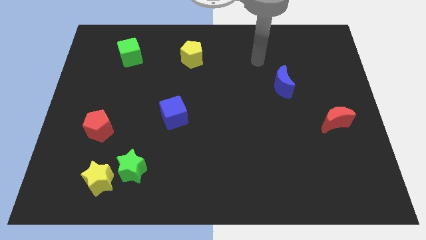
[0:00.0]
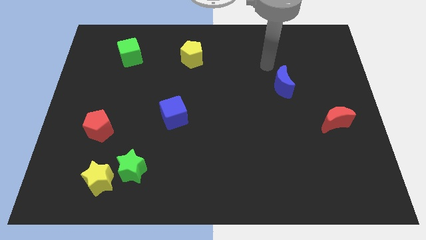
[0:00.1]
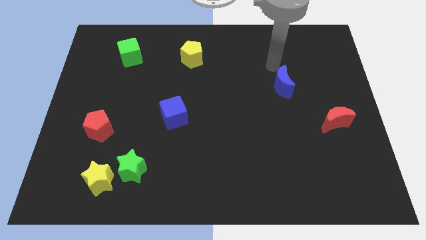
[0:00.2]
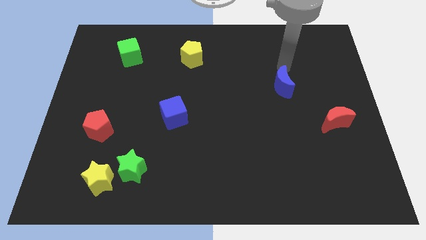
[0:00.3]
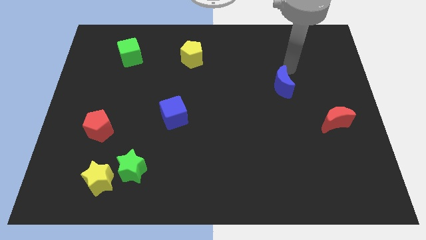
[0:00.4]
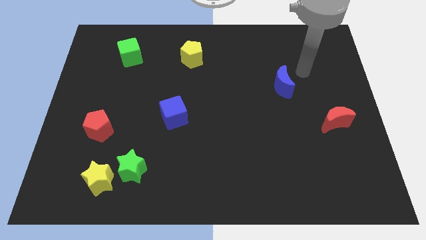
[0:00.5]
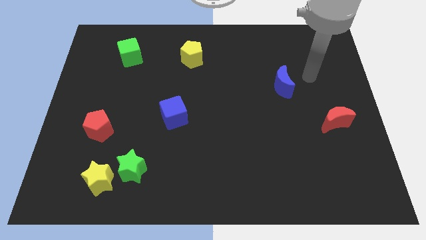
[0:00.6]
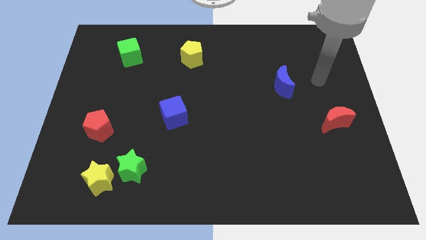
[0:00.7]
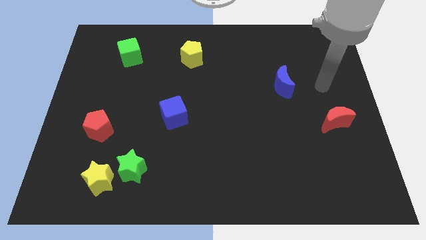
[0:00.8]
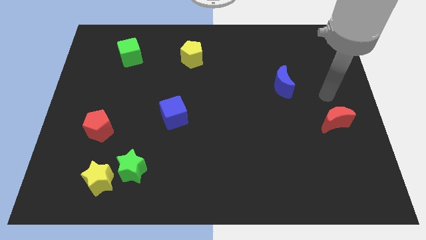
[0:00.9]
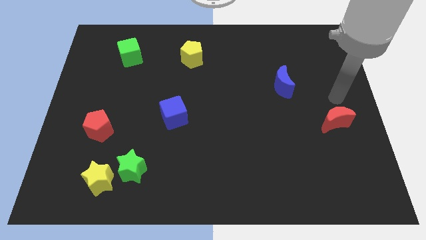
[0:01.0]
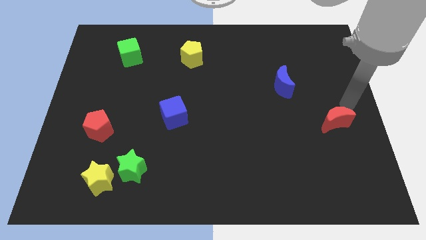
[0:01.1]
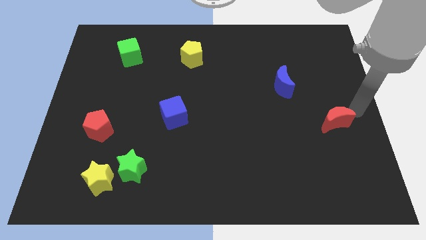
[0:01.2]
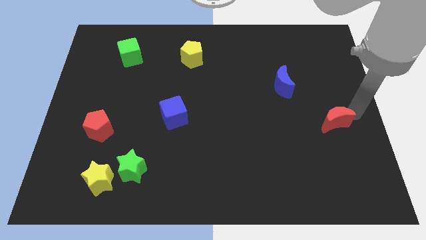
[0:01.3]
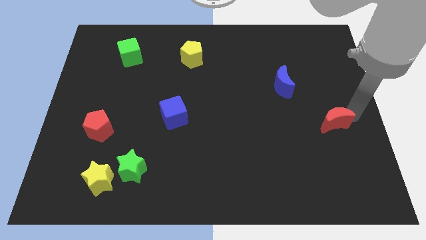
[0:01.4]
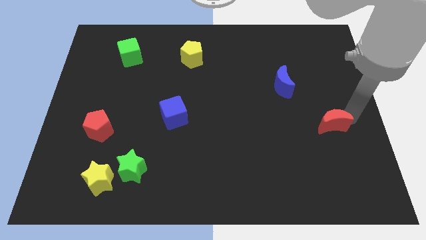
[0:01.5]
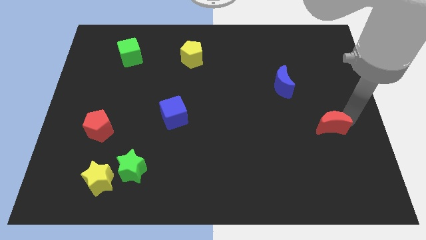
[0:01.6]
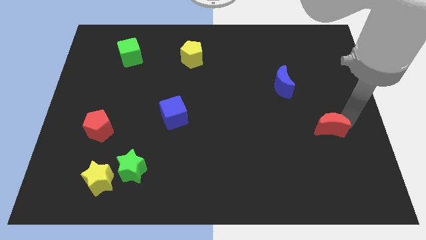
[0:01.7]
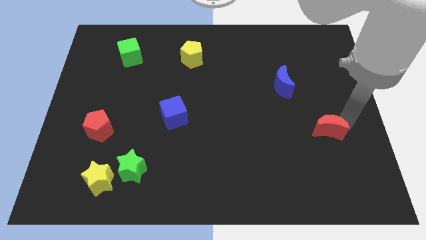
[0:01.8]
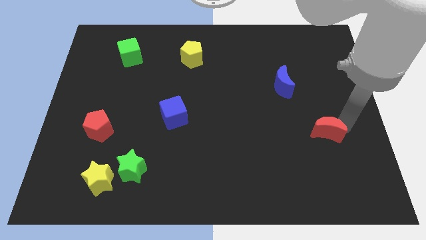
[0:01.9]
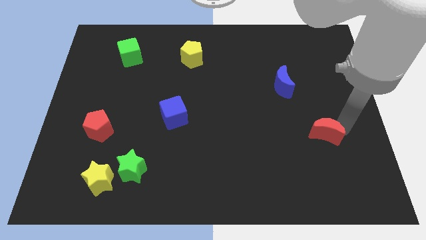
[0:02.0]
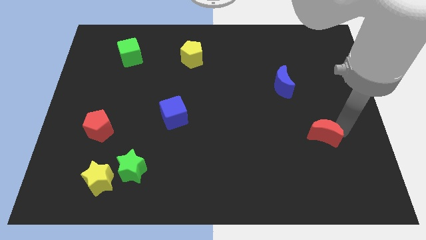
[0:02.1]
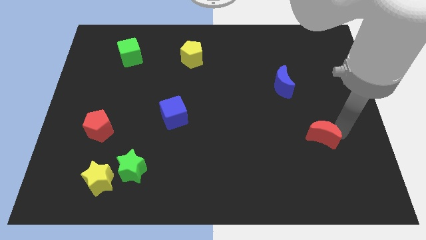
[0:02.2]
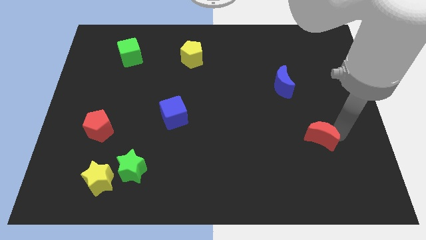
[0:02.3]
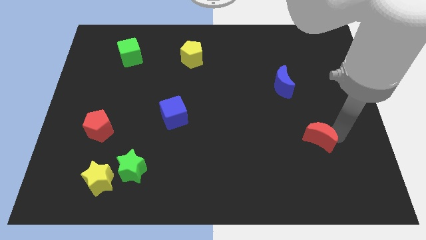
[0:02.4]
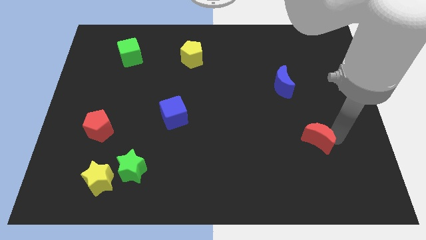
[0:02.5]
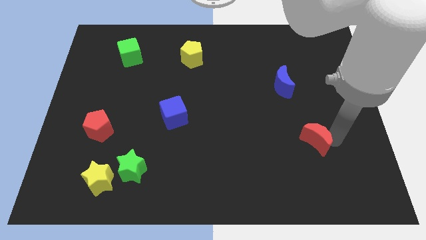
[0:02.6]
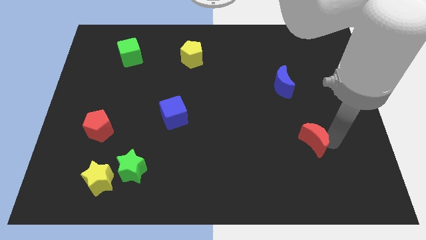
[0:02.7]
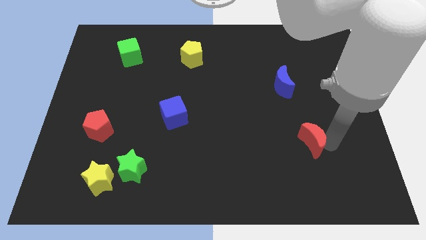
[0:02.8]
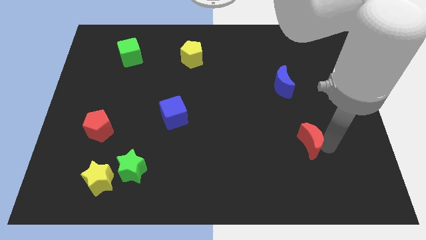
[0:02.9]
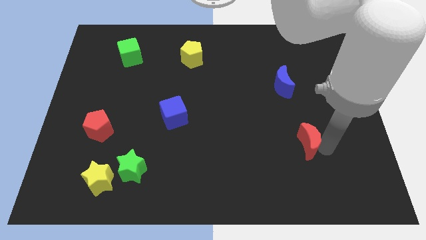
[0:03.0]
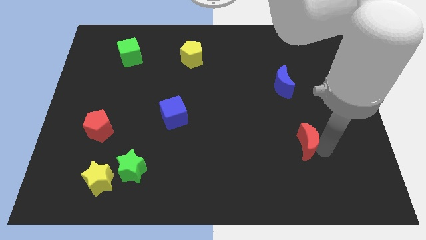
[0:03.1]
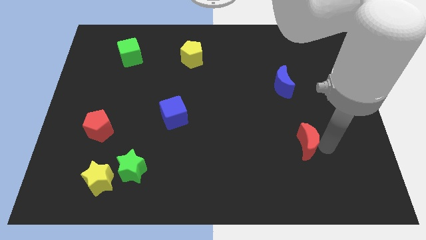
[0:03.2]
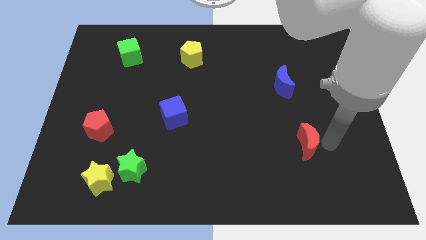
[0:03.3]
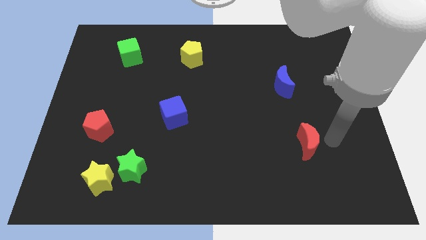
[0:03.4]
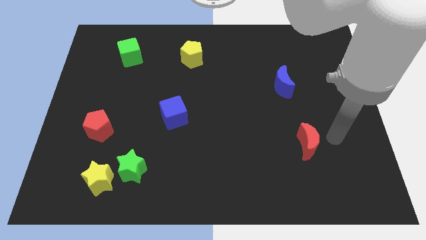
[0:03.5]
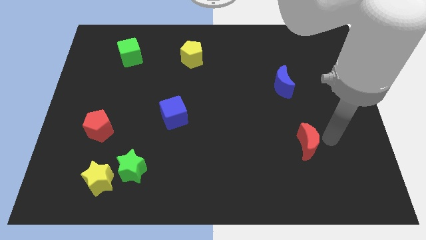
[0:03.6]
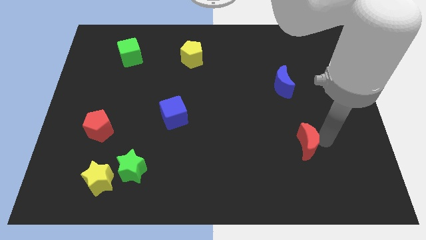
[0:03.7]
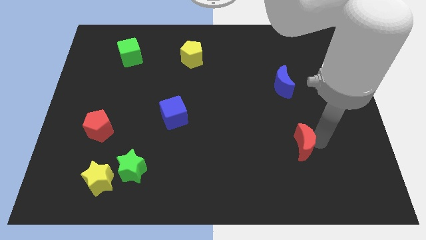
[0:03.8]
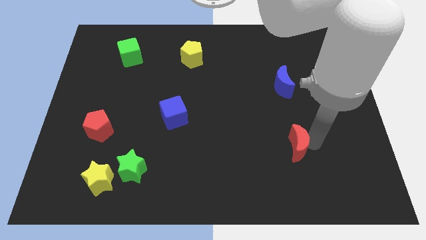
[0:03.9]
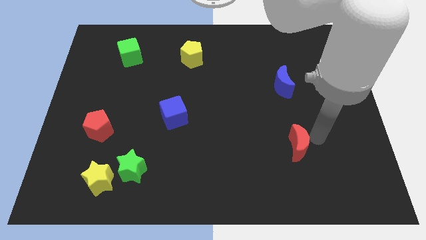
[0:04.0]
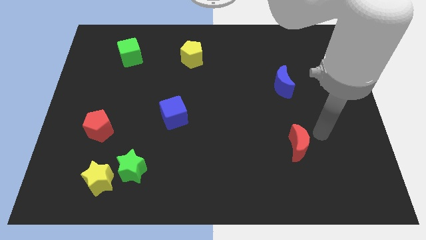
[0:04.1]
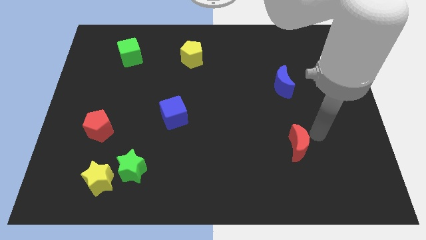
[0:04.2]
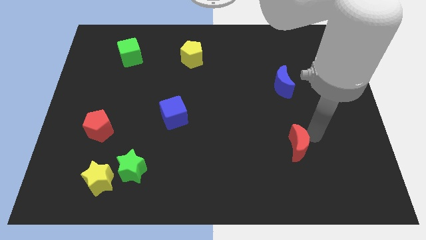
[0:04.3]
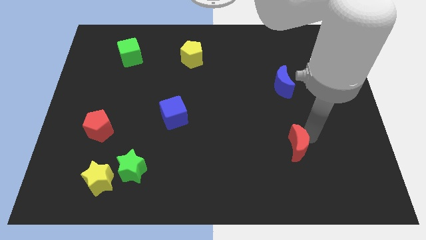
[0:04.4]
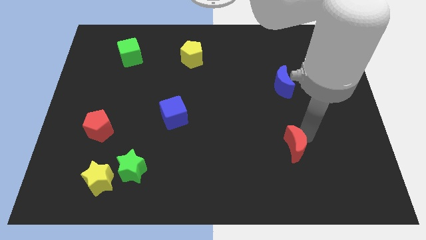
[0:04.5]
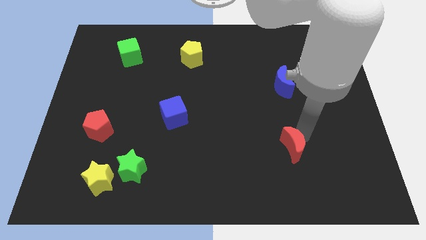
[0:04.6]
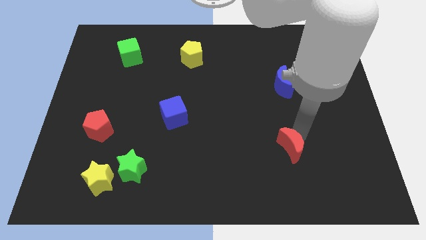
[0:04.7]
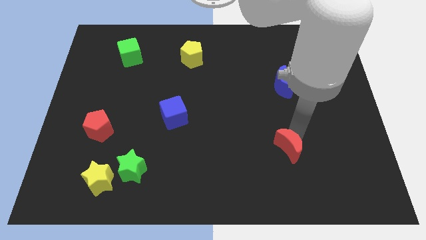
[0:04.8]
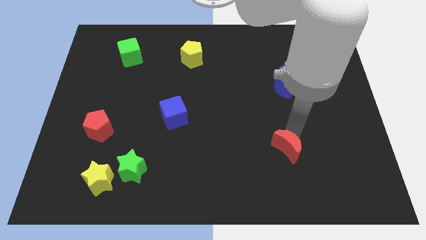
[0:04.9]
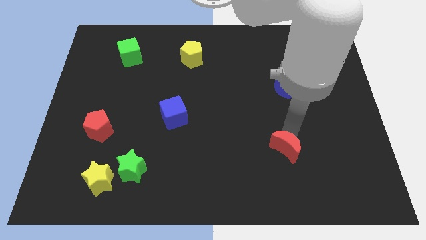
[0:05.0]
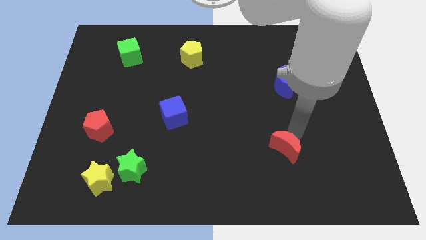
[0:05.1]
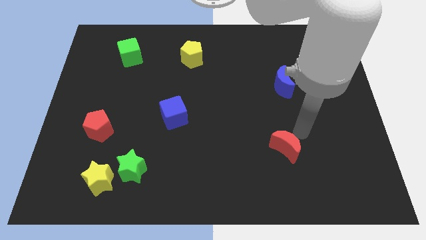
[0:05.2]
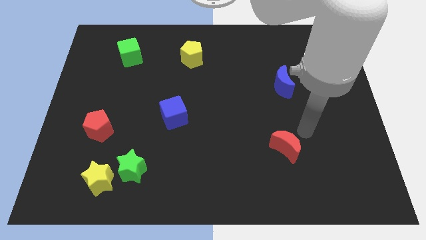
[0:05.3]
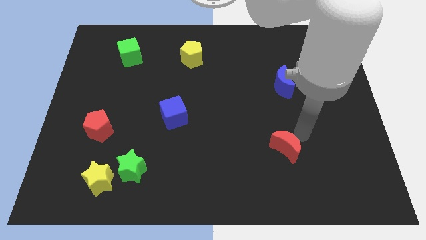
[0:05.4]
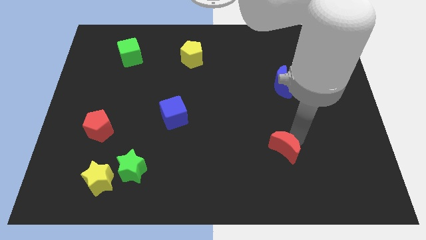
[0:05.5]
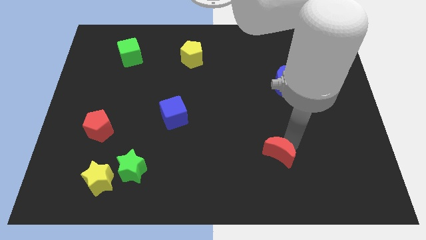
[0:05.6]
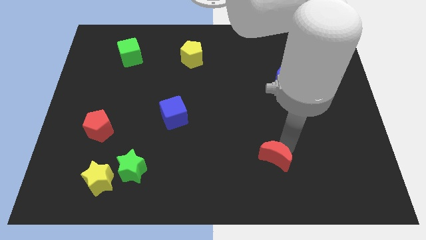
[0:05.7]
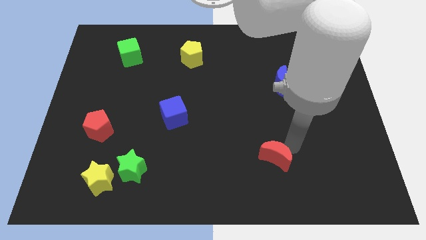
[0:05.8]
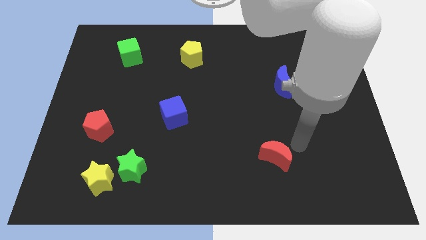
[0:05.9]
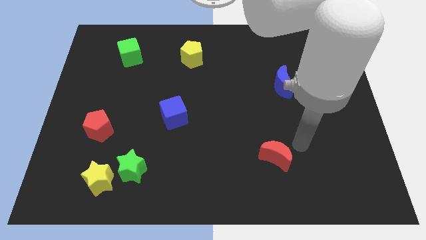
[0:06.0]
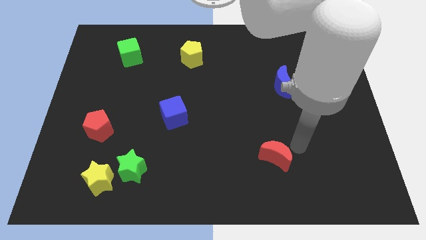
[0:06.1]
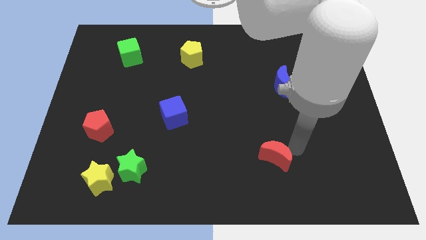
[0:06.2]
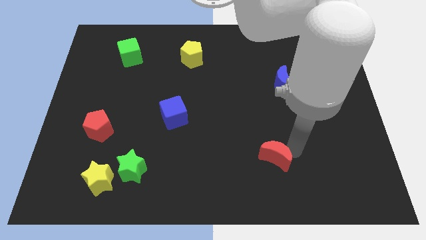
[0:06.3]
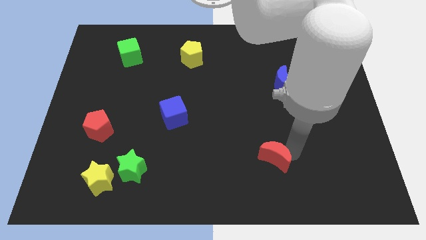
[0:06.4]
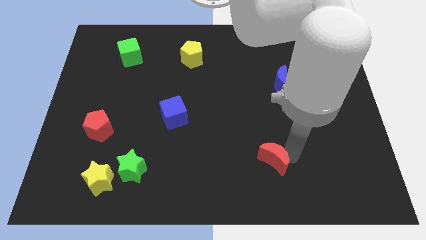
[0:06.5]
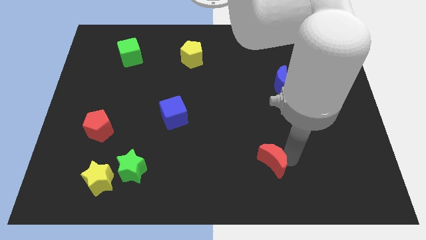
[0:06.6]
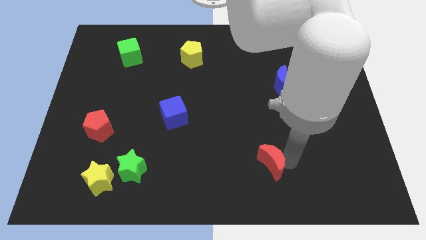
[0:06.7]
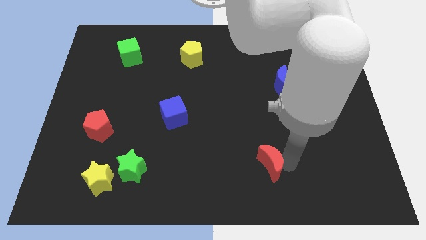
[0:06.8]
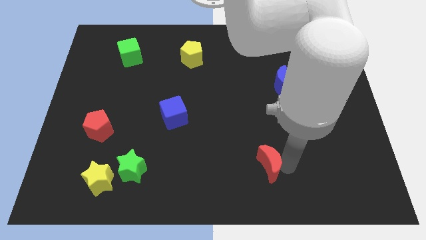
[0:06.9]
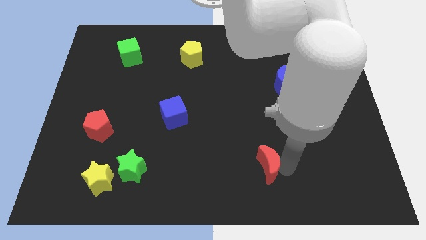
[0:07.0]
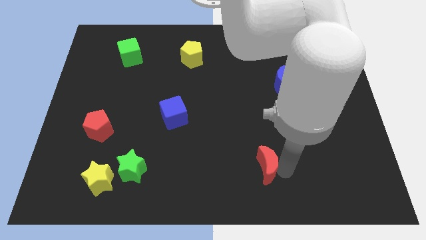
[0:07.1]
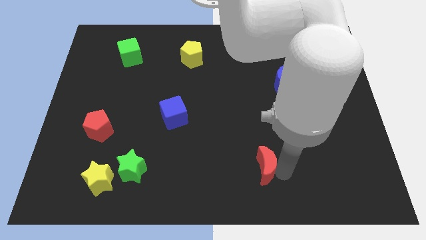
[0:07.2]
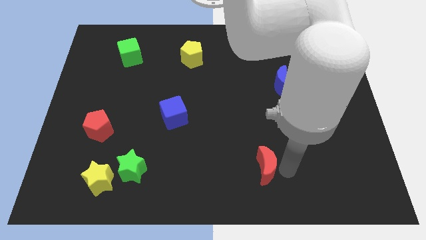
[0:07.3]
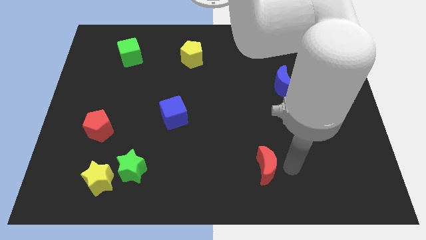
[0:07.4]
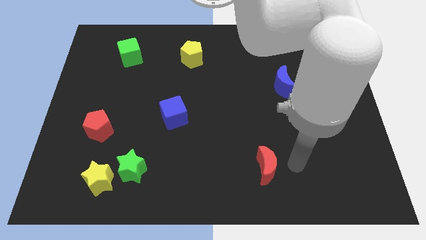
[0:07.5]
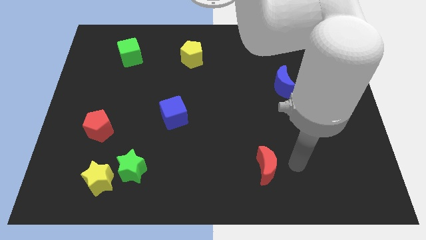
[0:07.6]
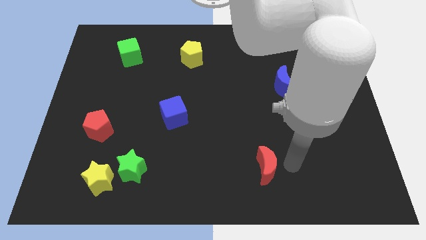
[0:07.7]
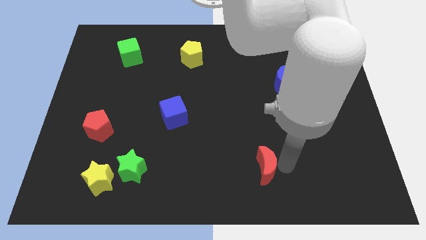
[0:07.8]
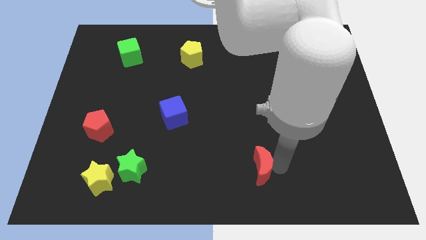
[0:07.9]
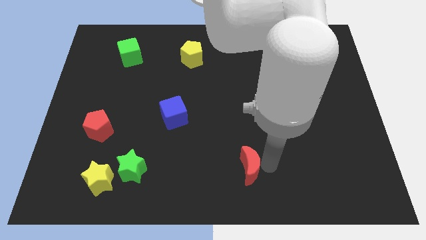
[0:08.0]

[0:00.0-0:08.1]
slide the red moon to the bottom side

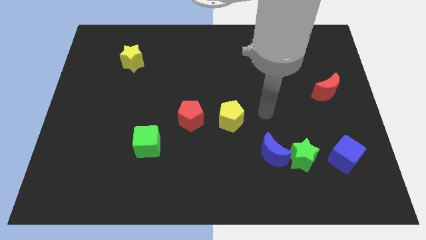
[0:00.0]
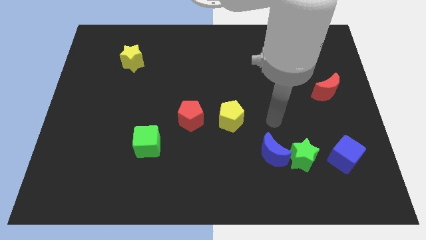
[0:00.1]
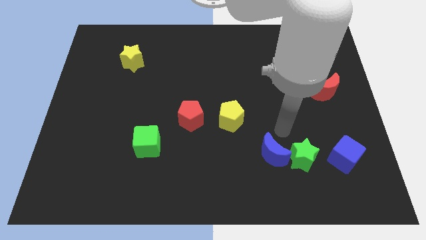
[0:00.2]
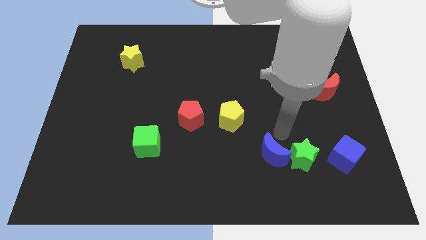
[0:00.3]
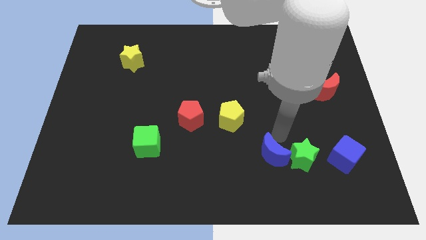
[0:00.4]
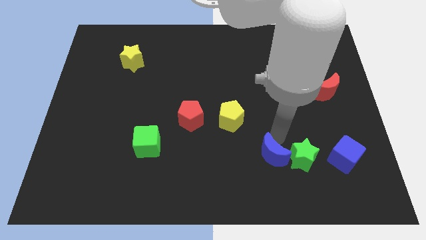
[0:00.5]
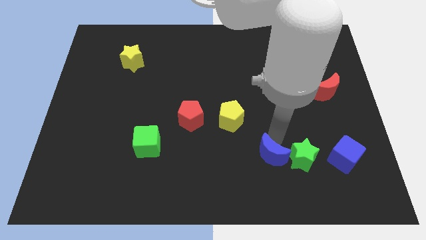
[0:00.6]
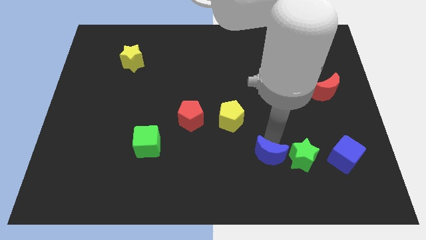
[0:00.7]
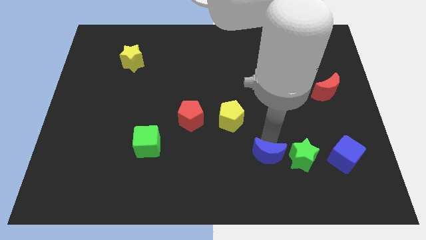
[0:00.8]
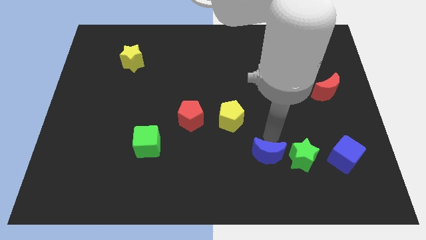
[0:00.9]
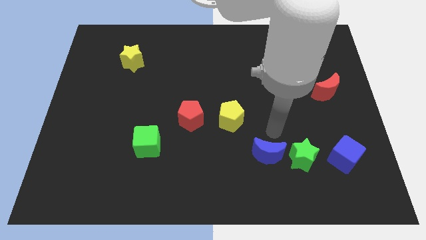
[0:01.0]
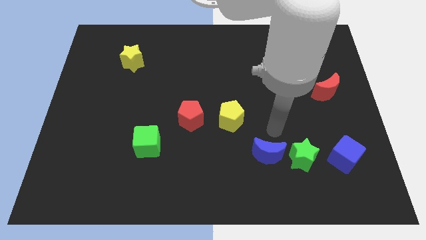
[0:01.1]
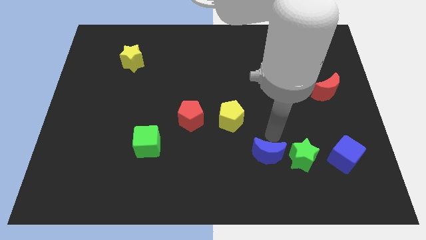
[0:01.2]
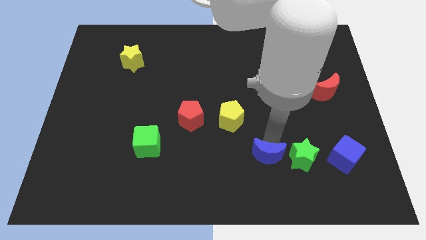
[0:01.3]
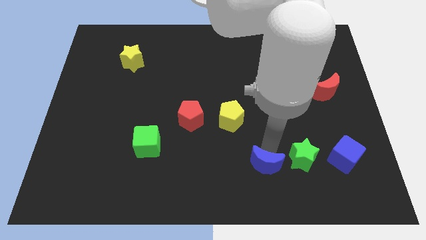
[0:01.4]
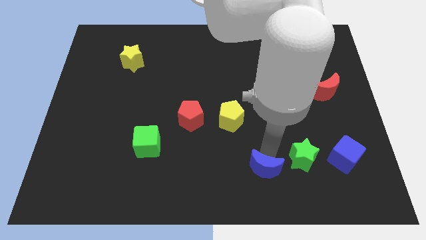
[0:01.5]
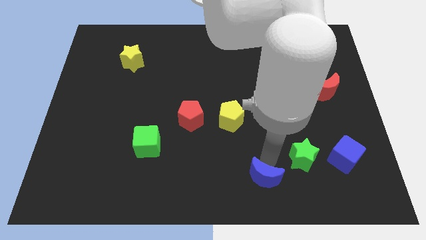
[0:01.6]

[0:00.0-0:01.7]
push the blue moon to the bottom side
